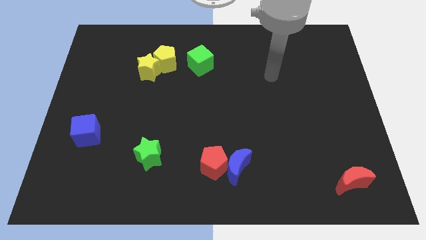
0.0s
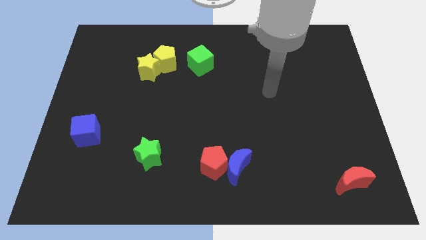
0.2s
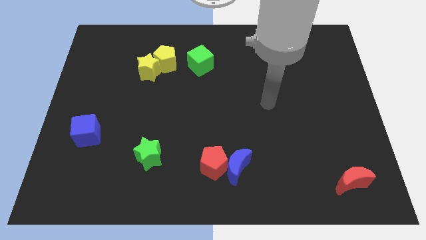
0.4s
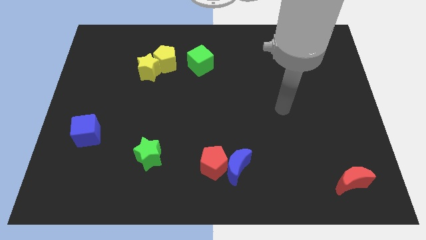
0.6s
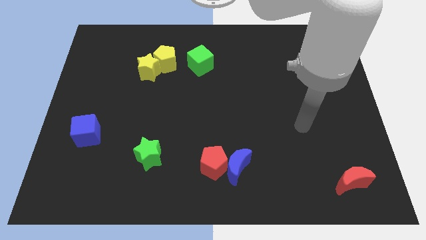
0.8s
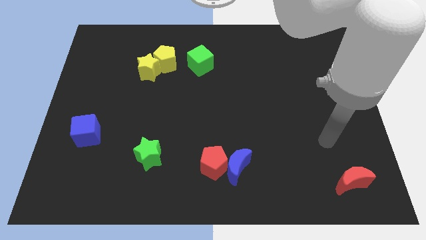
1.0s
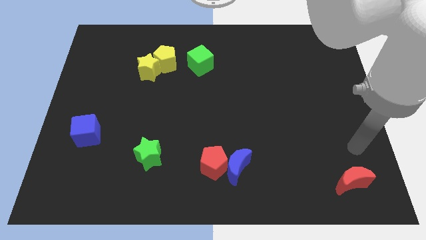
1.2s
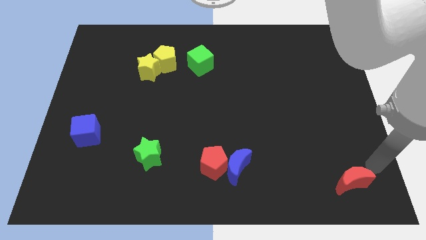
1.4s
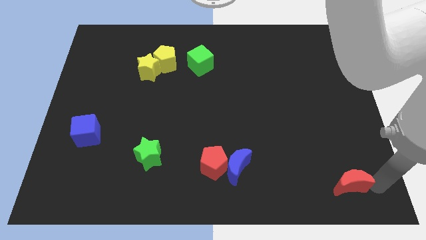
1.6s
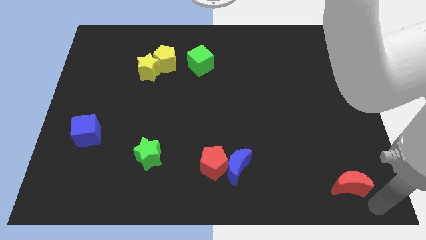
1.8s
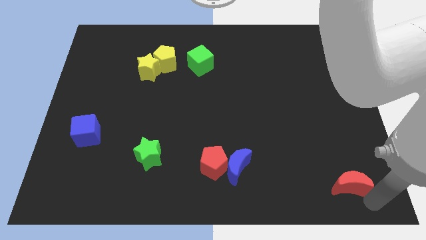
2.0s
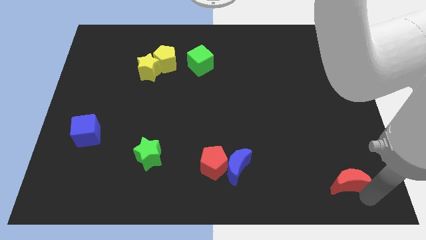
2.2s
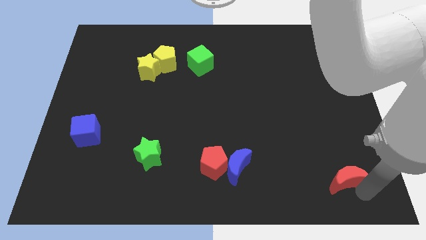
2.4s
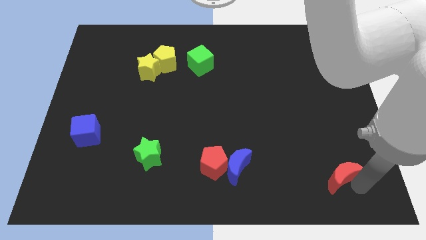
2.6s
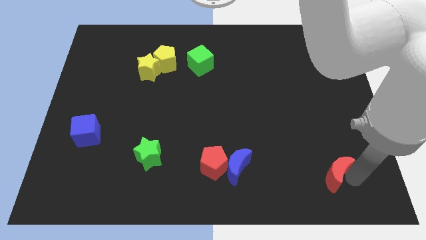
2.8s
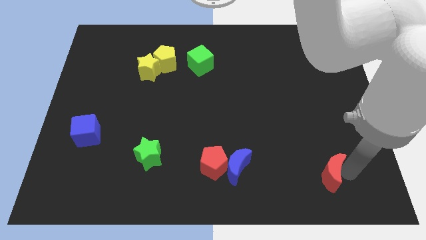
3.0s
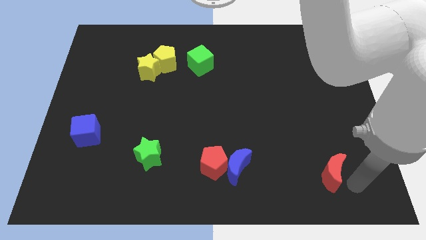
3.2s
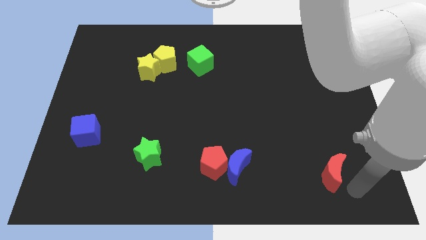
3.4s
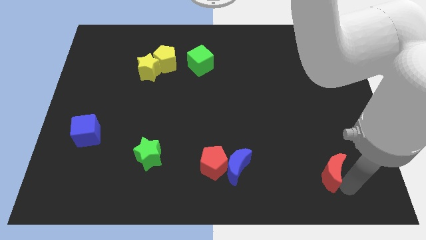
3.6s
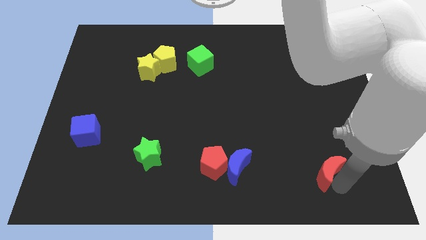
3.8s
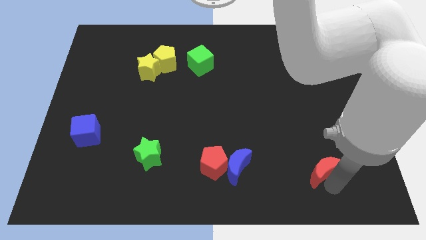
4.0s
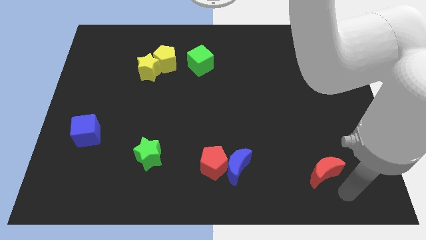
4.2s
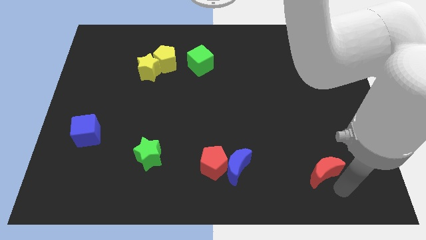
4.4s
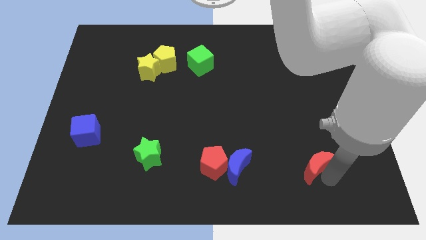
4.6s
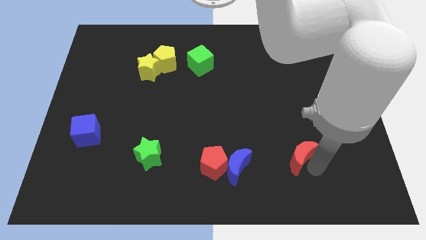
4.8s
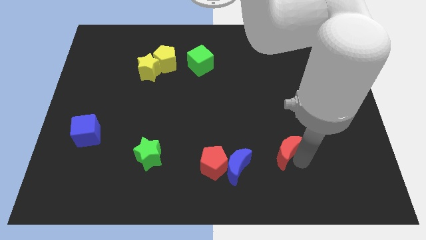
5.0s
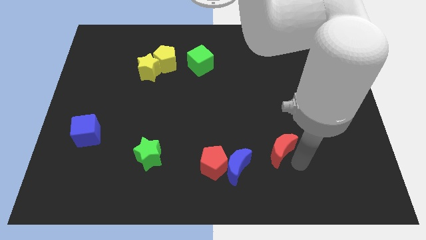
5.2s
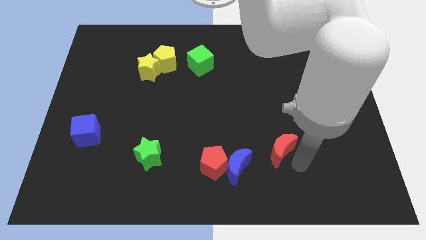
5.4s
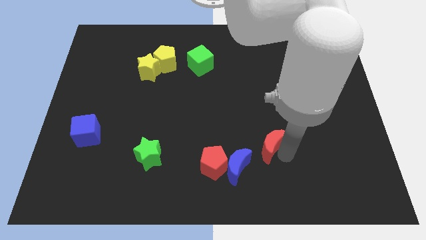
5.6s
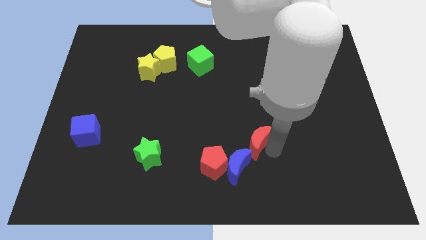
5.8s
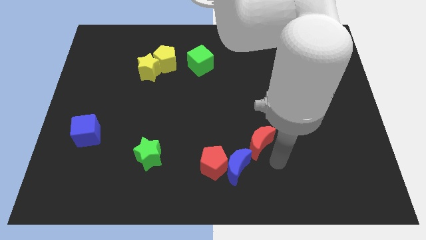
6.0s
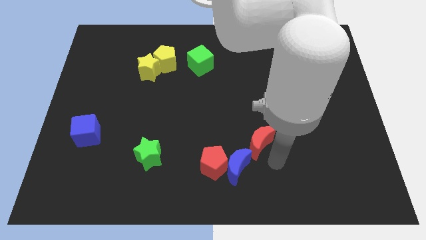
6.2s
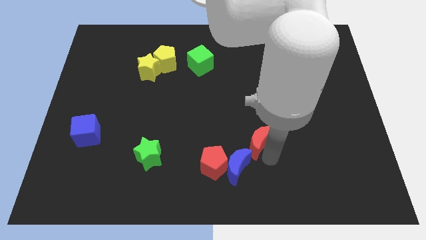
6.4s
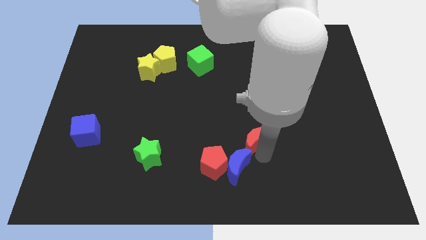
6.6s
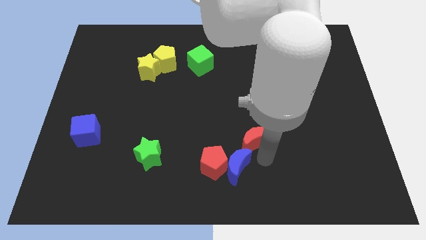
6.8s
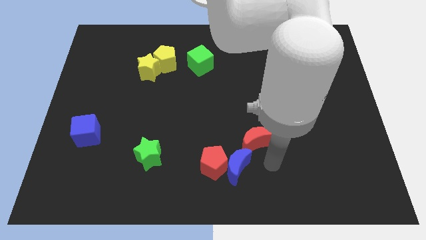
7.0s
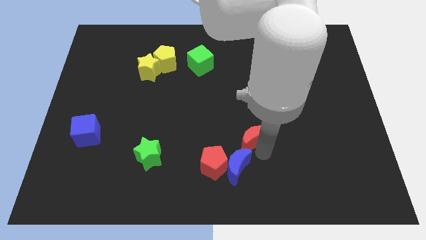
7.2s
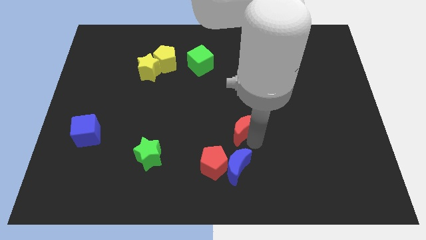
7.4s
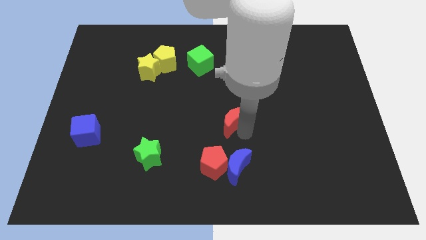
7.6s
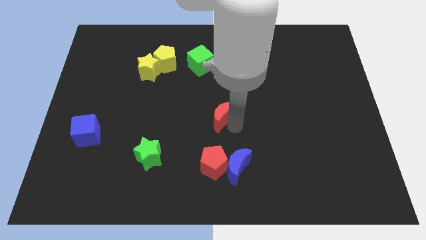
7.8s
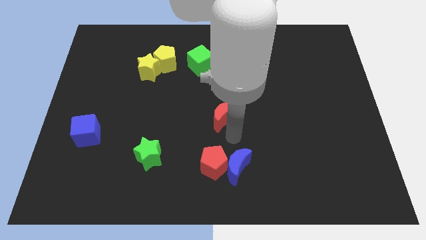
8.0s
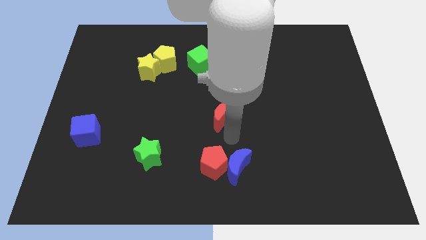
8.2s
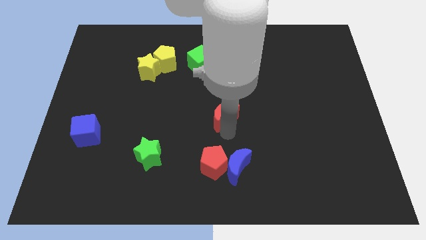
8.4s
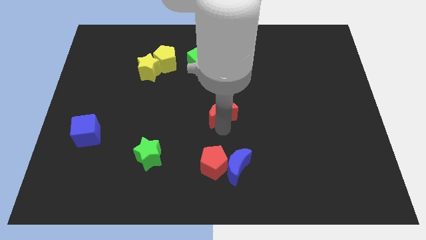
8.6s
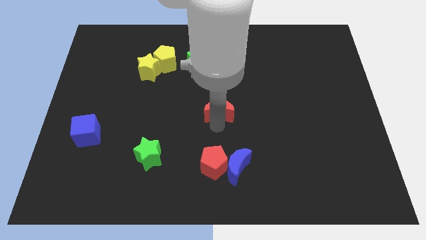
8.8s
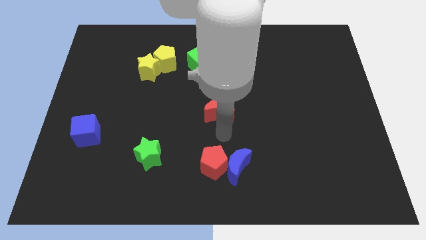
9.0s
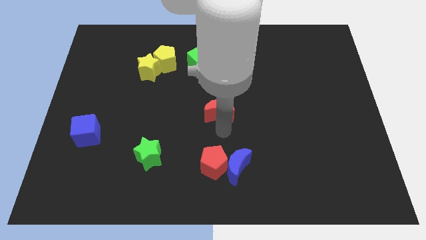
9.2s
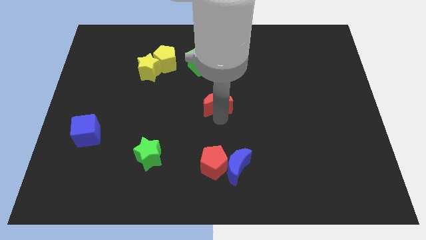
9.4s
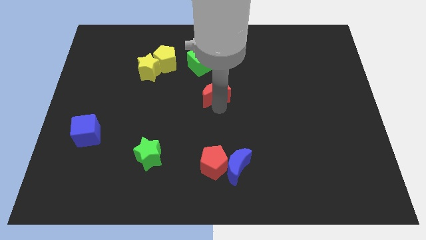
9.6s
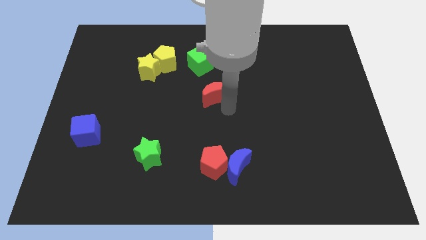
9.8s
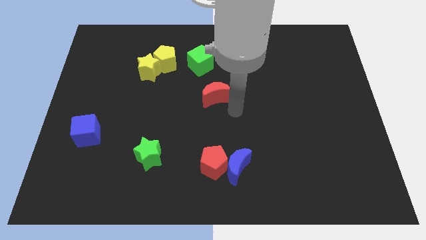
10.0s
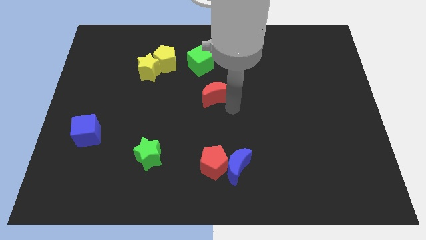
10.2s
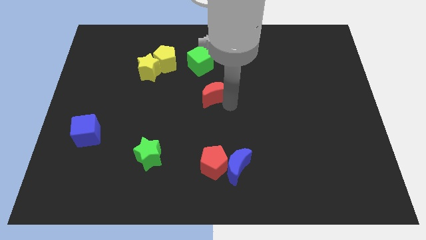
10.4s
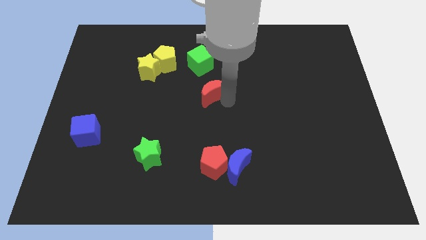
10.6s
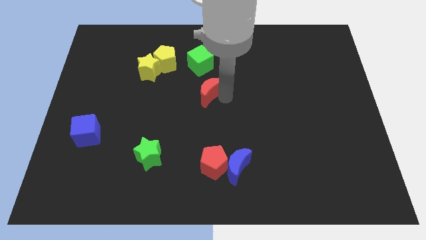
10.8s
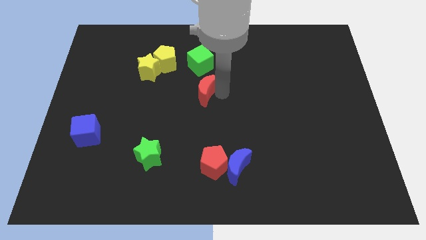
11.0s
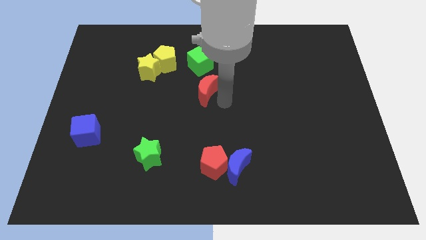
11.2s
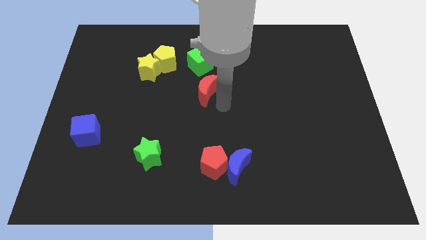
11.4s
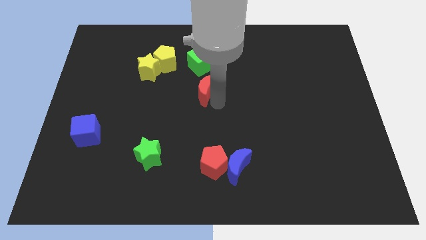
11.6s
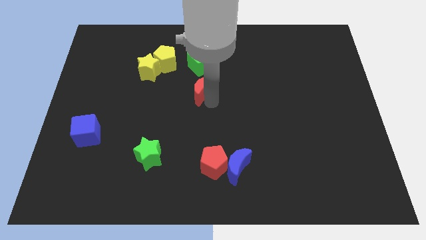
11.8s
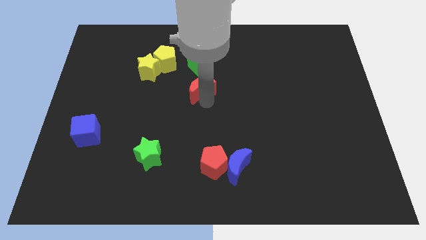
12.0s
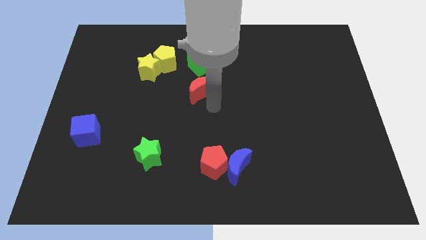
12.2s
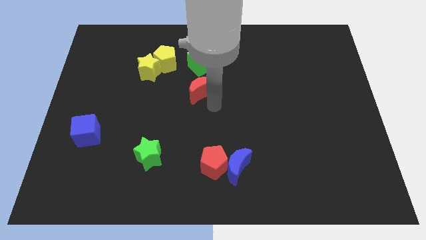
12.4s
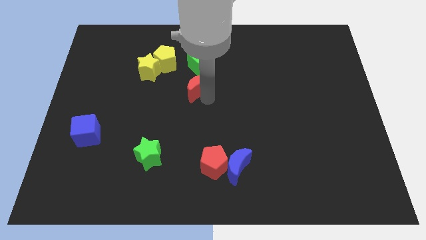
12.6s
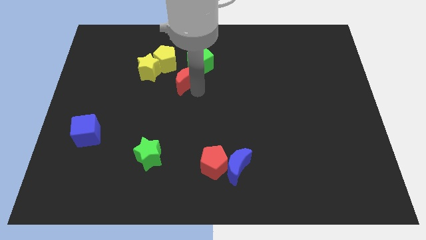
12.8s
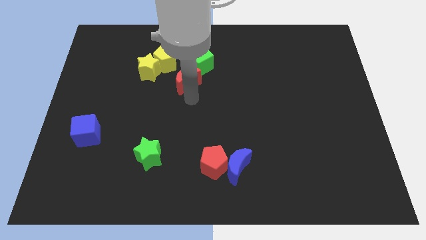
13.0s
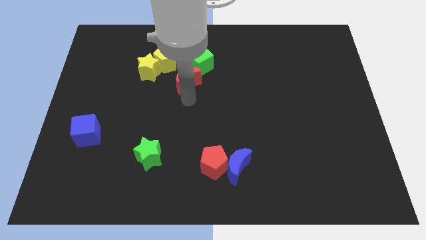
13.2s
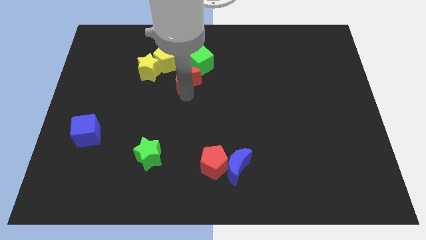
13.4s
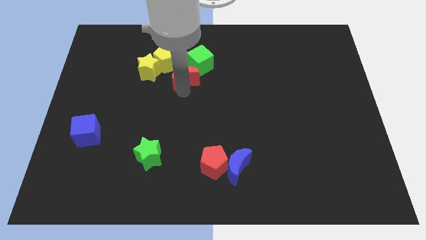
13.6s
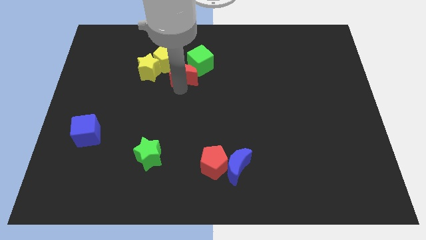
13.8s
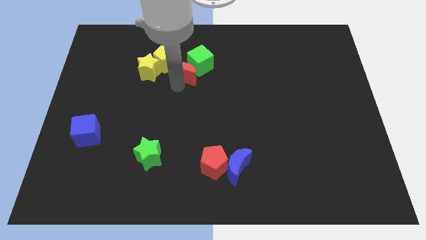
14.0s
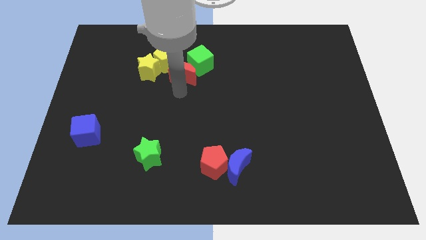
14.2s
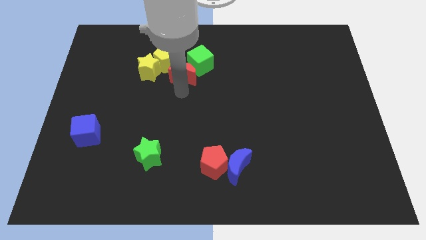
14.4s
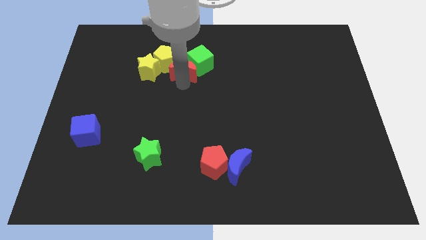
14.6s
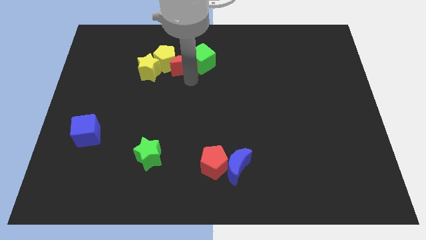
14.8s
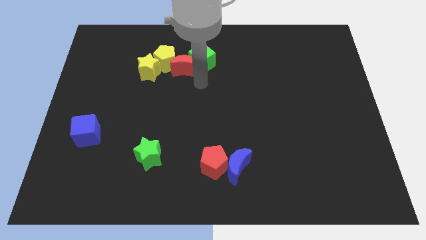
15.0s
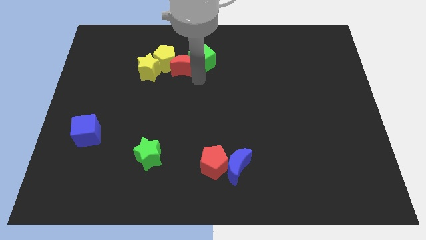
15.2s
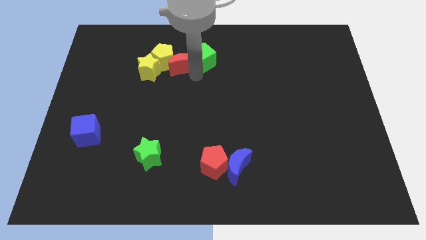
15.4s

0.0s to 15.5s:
move the red moon to the top right side of the yellow star
